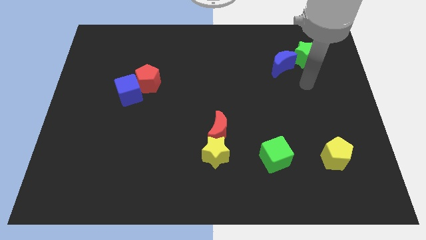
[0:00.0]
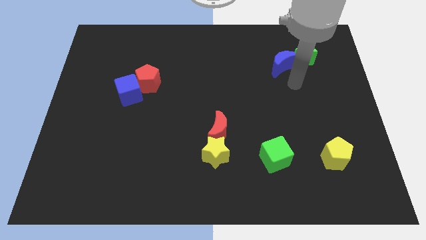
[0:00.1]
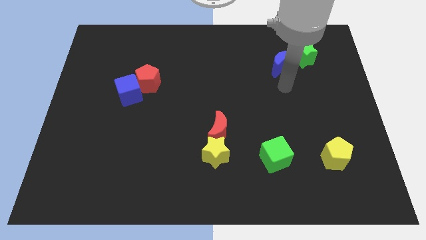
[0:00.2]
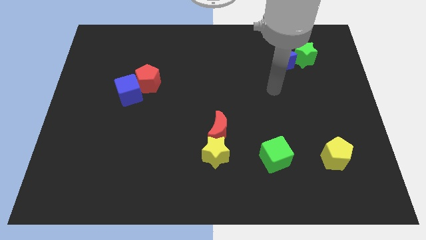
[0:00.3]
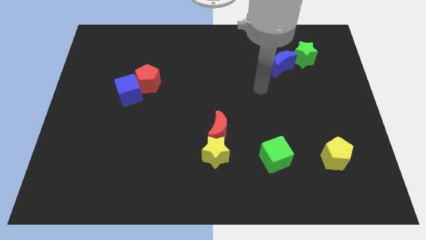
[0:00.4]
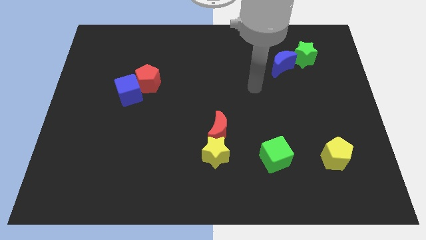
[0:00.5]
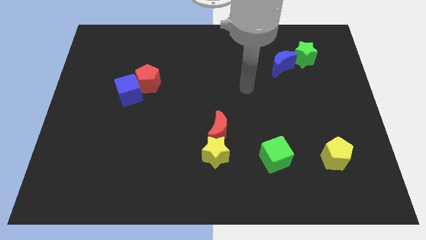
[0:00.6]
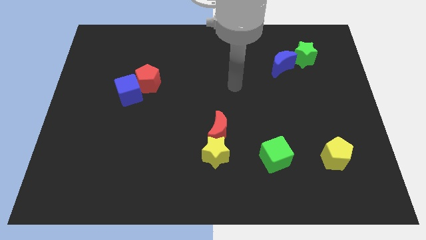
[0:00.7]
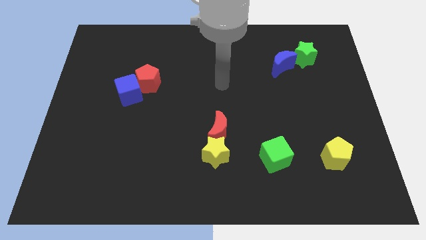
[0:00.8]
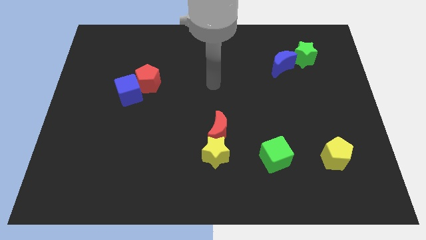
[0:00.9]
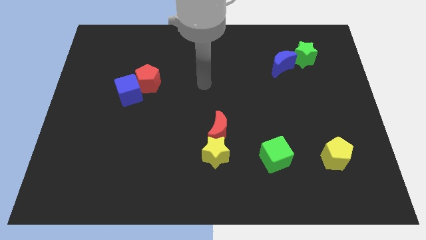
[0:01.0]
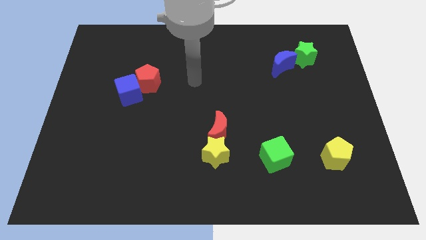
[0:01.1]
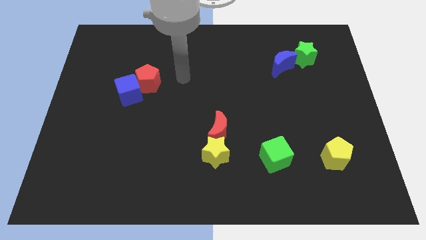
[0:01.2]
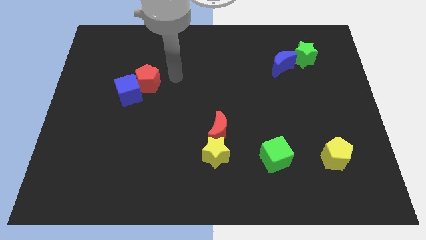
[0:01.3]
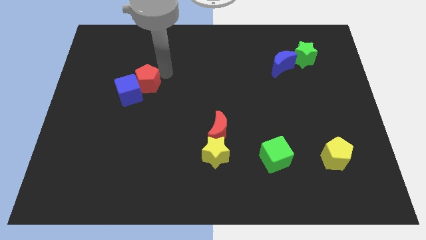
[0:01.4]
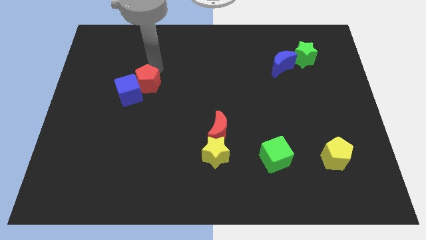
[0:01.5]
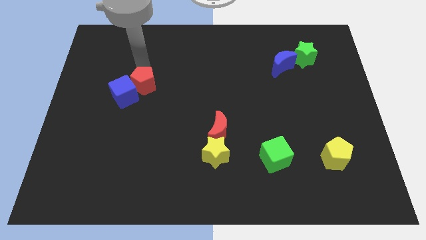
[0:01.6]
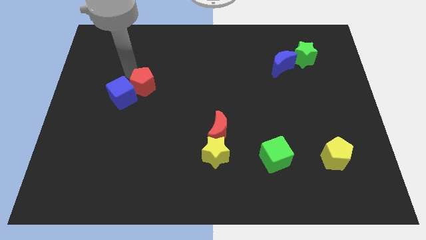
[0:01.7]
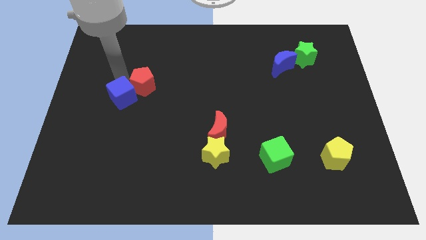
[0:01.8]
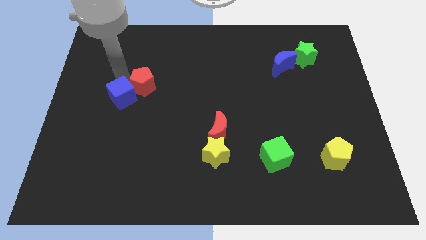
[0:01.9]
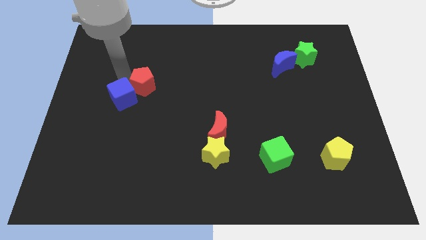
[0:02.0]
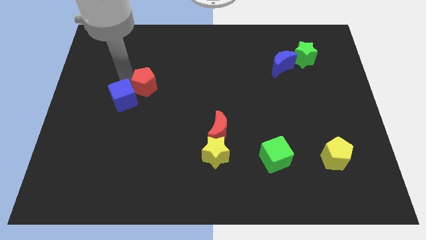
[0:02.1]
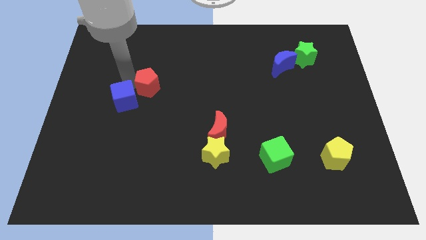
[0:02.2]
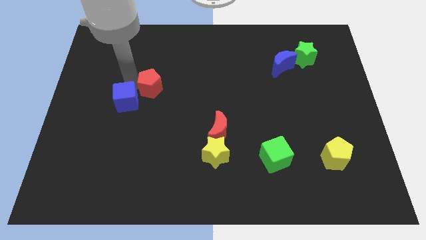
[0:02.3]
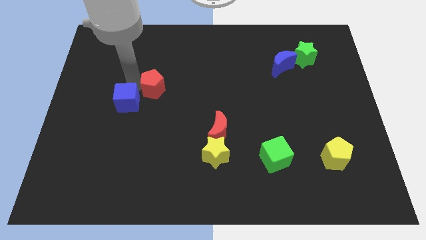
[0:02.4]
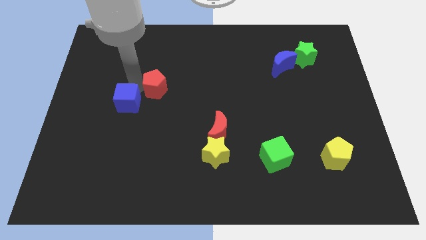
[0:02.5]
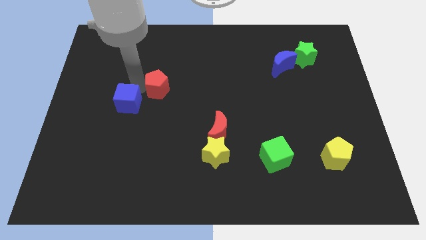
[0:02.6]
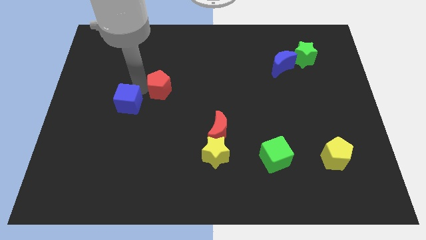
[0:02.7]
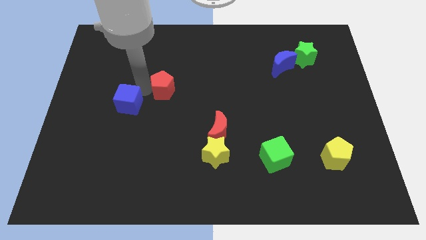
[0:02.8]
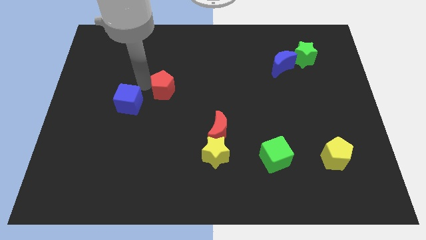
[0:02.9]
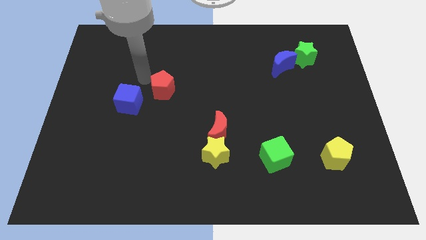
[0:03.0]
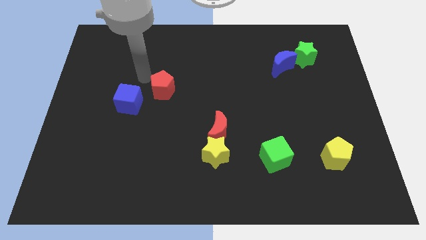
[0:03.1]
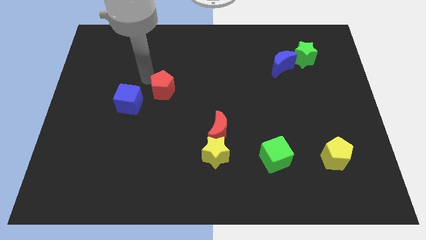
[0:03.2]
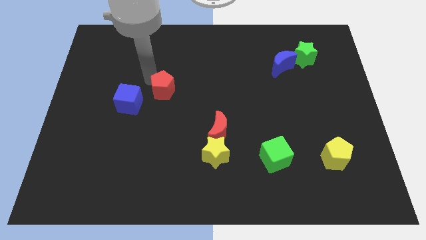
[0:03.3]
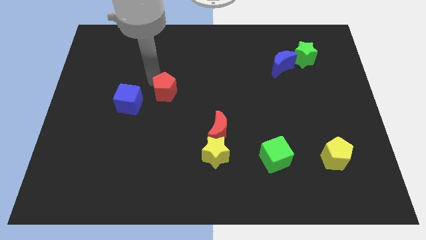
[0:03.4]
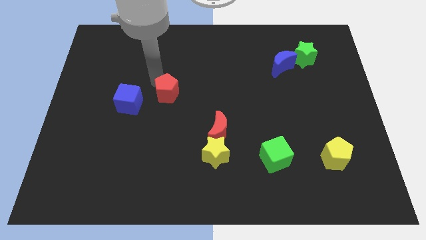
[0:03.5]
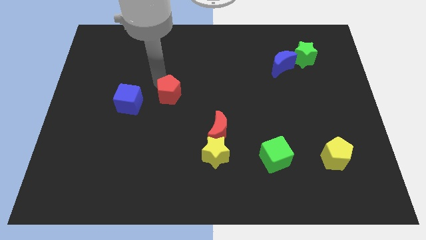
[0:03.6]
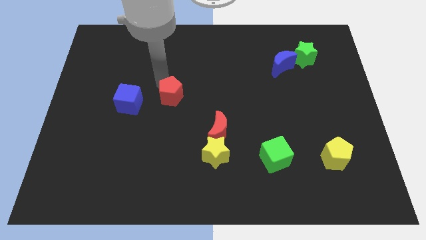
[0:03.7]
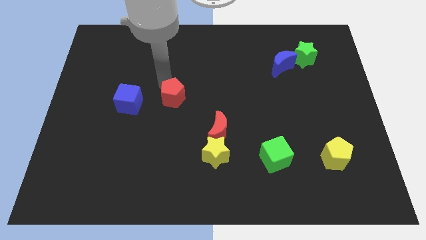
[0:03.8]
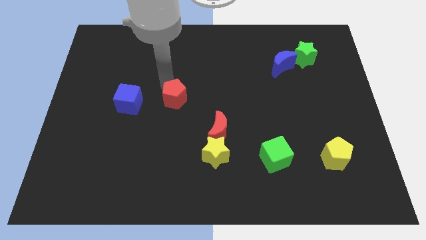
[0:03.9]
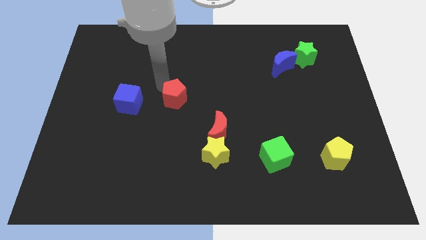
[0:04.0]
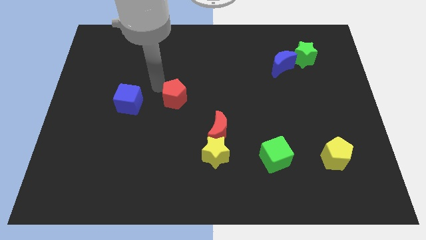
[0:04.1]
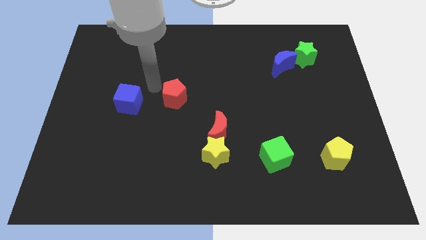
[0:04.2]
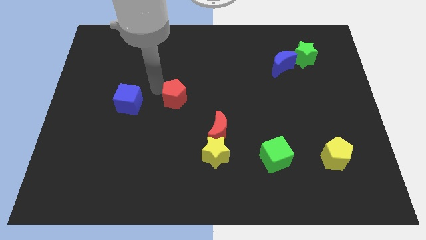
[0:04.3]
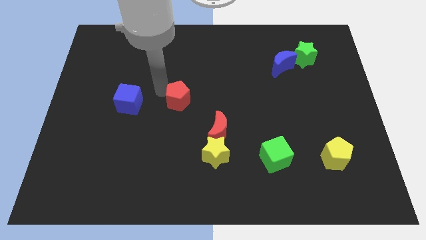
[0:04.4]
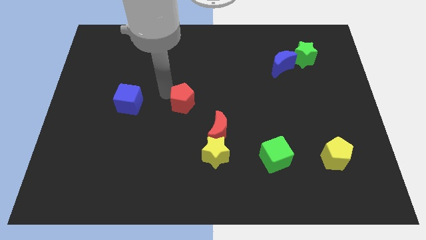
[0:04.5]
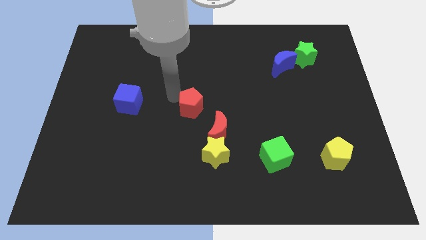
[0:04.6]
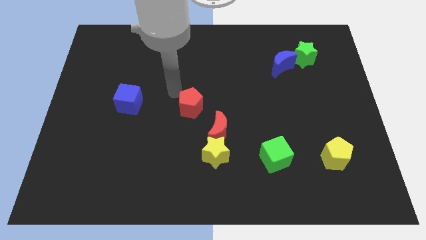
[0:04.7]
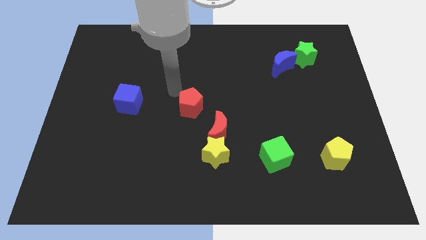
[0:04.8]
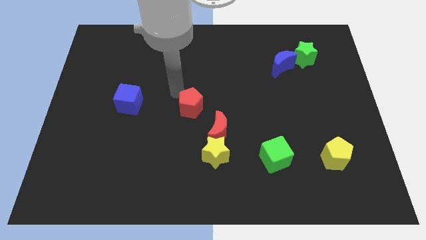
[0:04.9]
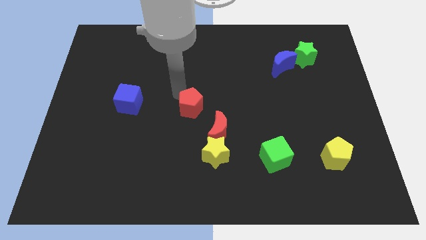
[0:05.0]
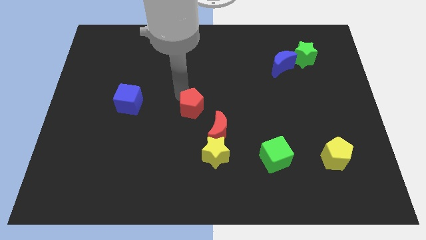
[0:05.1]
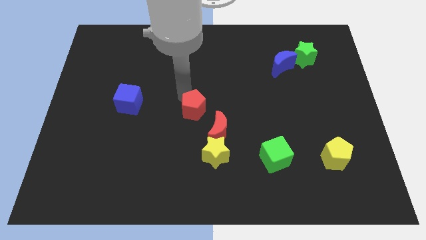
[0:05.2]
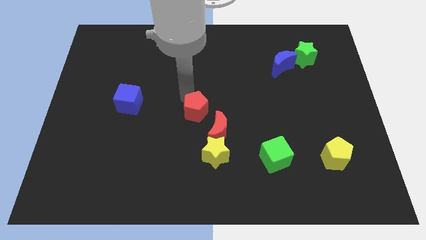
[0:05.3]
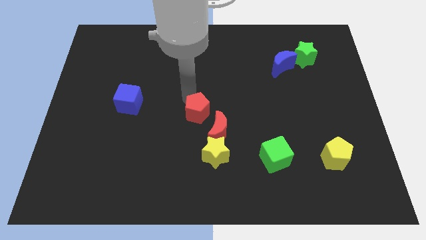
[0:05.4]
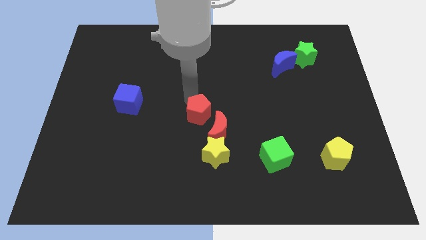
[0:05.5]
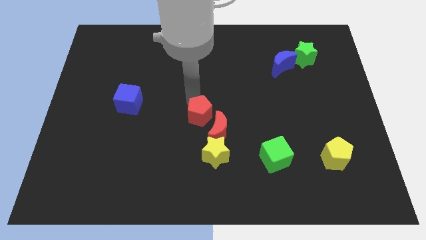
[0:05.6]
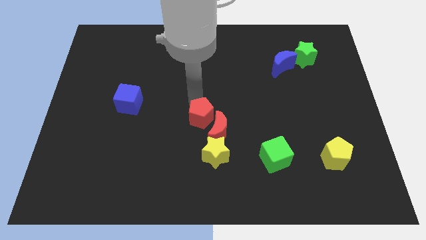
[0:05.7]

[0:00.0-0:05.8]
put the red pentagon close to the red moon

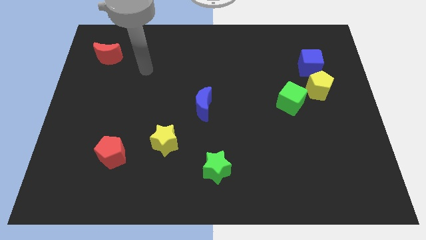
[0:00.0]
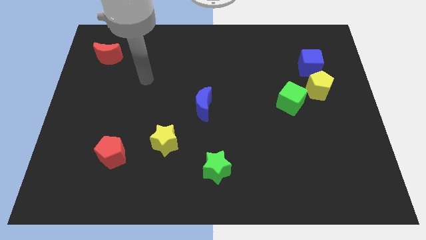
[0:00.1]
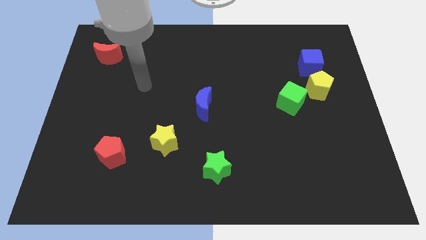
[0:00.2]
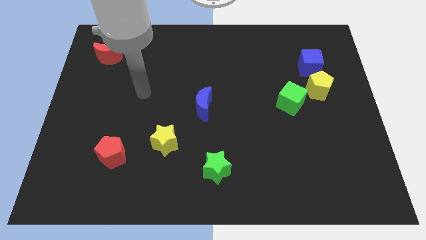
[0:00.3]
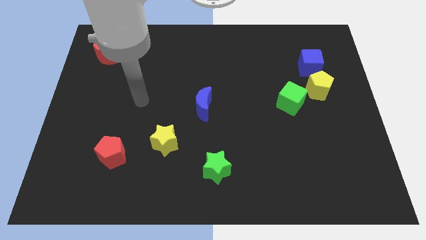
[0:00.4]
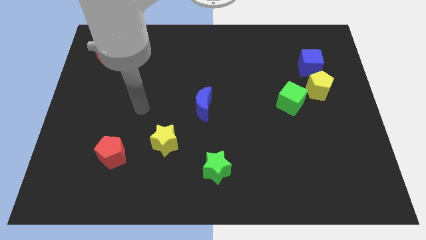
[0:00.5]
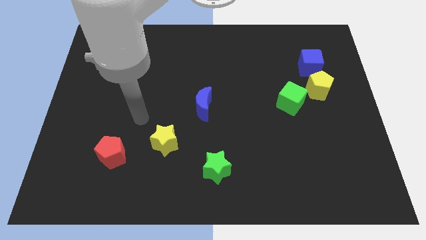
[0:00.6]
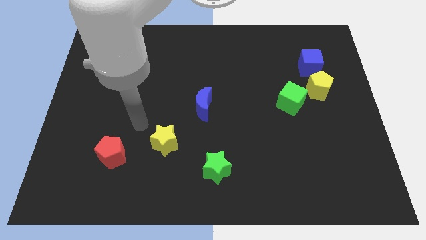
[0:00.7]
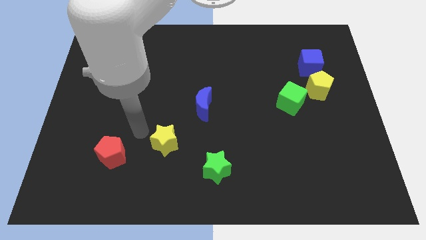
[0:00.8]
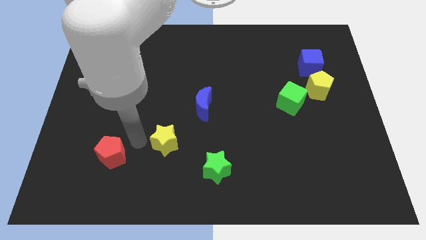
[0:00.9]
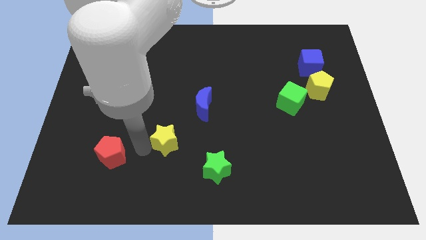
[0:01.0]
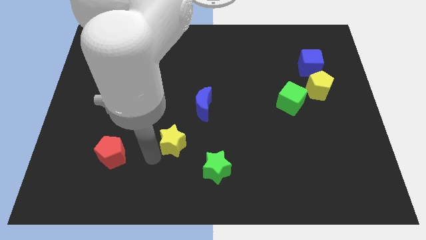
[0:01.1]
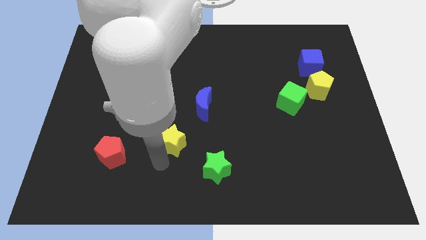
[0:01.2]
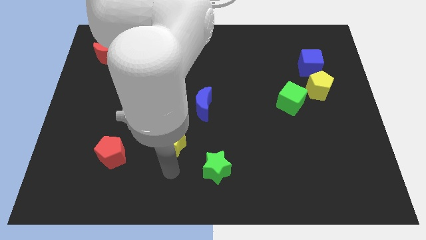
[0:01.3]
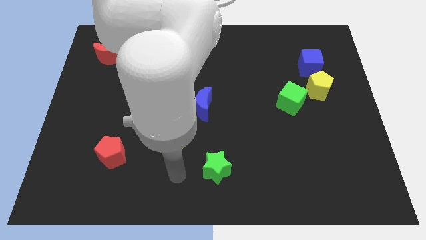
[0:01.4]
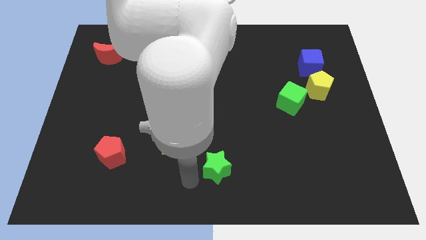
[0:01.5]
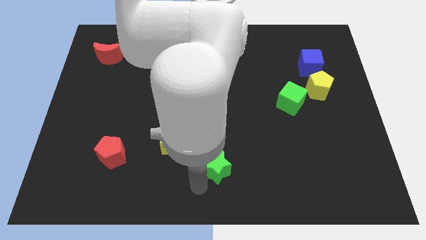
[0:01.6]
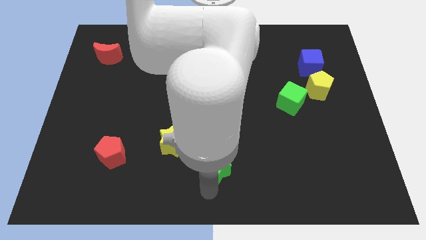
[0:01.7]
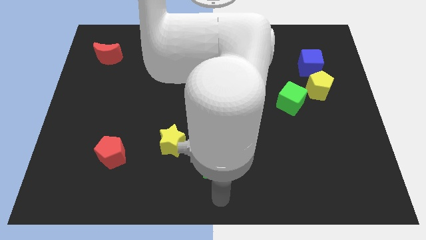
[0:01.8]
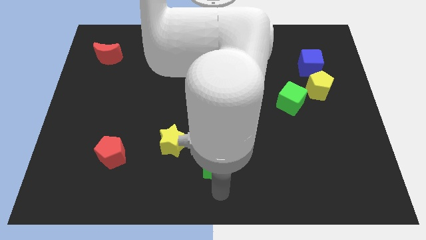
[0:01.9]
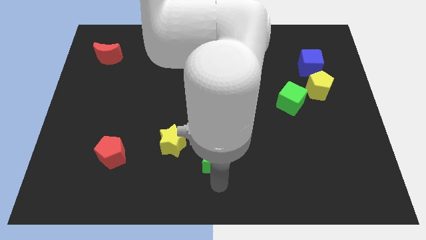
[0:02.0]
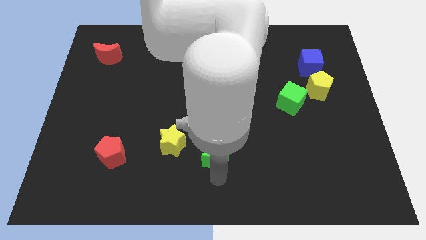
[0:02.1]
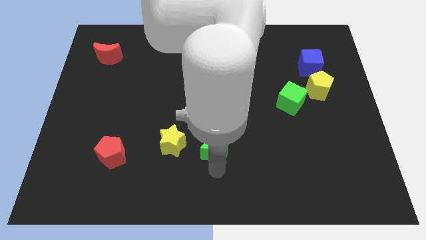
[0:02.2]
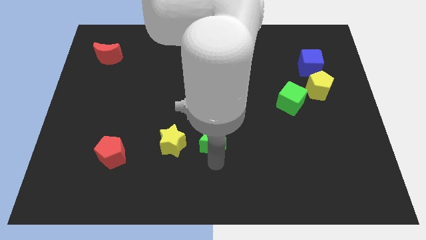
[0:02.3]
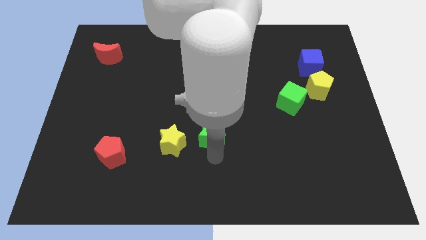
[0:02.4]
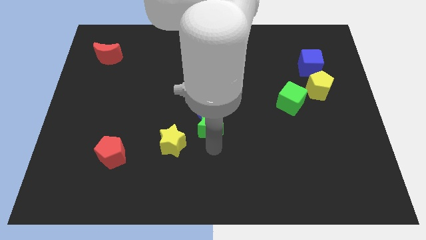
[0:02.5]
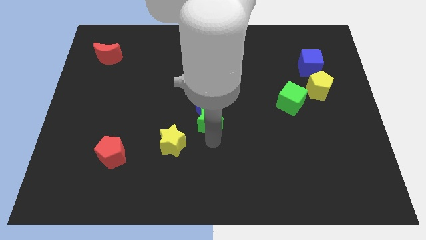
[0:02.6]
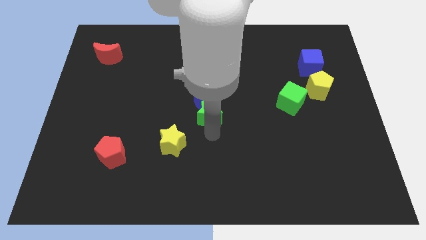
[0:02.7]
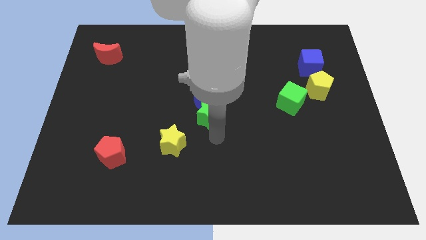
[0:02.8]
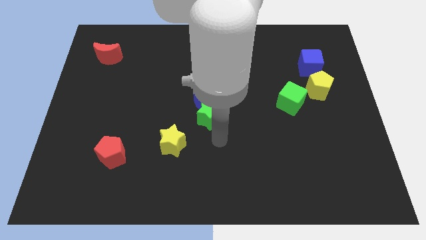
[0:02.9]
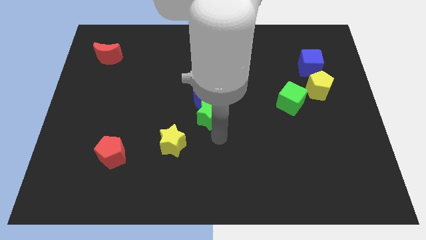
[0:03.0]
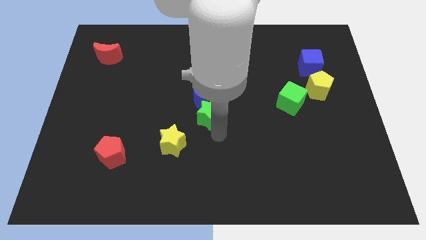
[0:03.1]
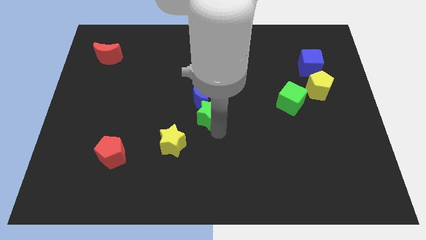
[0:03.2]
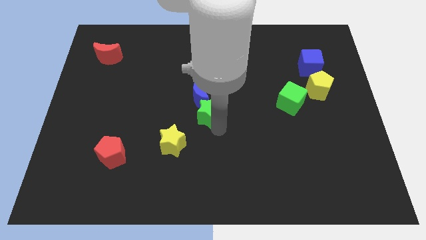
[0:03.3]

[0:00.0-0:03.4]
slide the green star close to the blue moon
